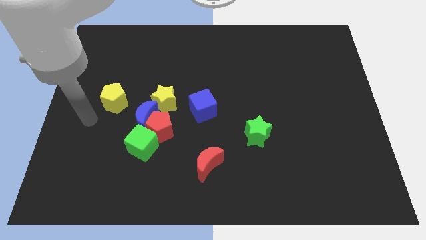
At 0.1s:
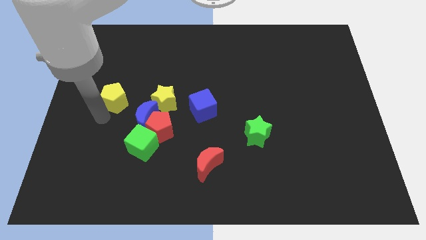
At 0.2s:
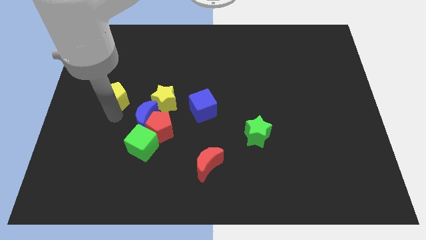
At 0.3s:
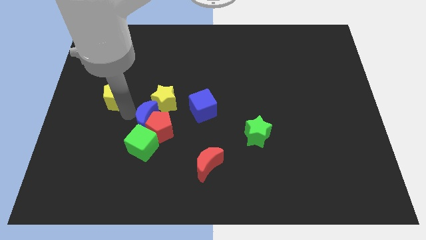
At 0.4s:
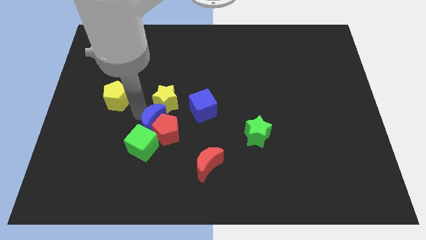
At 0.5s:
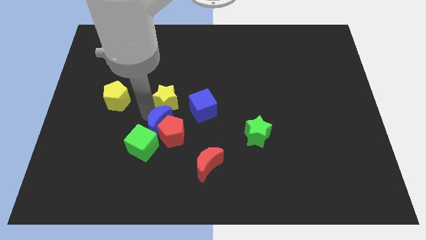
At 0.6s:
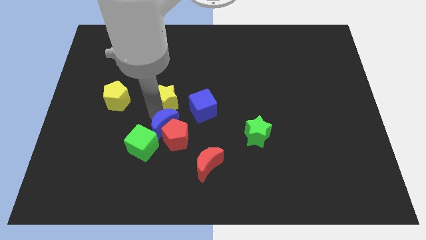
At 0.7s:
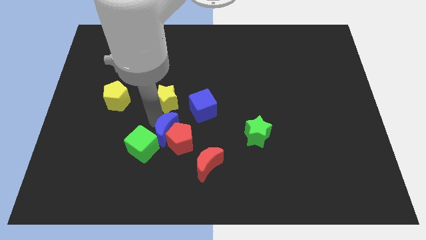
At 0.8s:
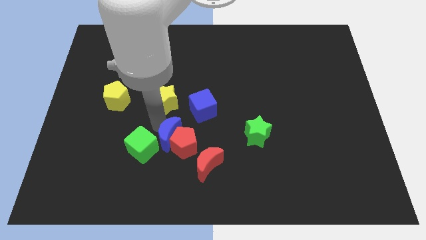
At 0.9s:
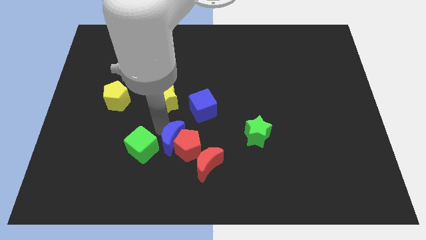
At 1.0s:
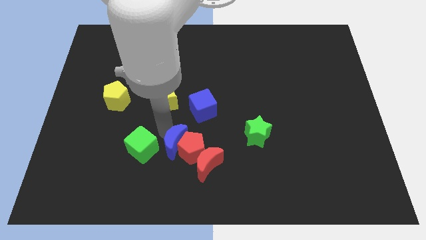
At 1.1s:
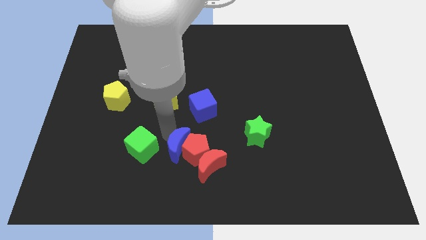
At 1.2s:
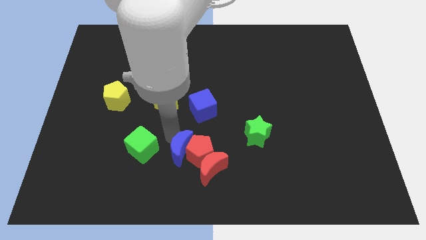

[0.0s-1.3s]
move the red pentagon away from the blue moon, green cube, and yellow star

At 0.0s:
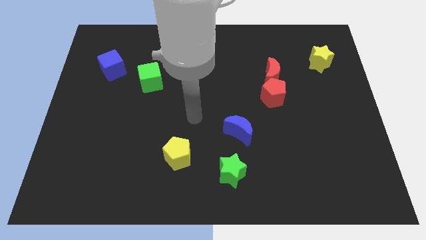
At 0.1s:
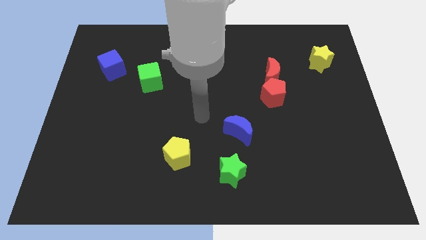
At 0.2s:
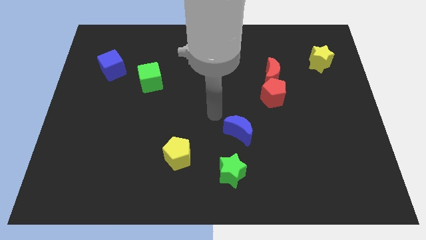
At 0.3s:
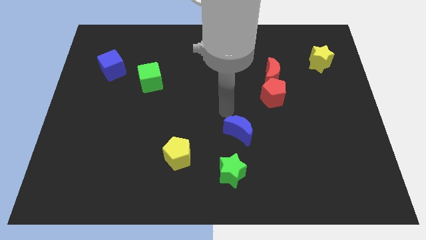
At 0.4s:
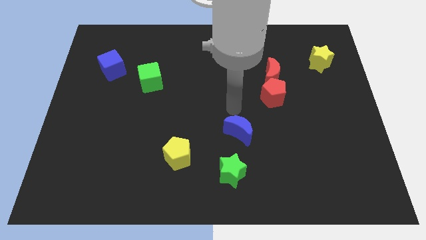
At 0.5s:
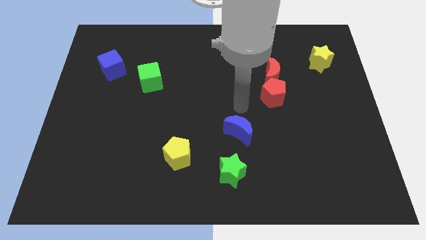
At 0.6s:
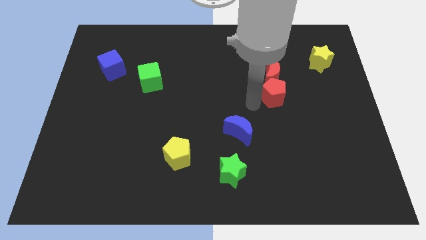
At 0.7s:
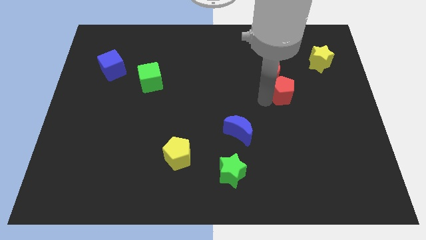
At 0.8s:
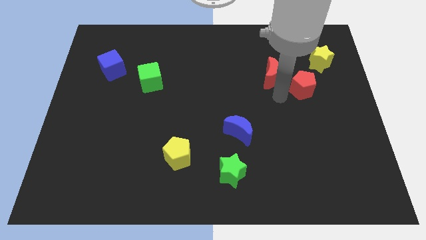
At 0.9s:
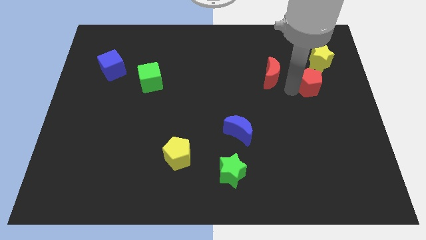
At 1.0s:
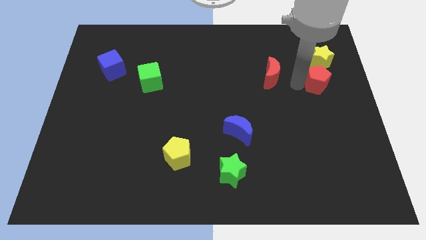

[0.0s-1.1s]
separate the red moon from the red pentagon

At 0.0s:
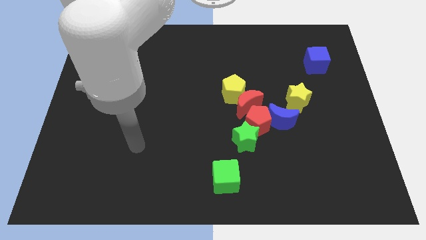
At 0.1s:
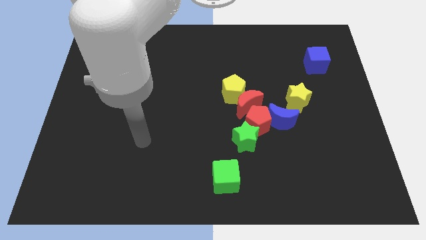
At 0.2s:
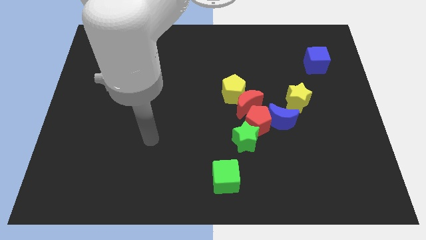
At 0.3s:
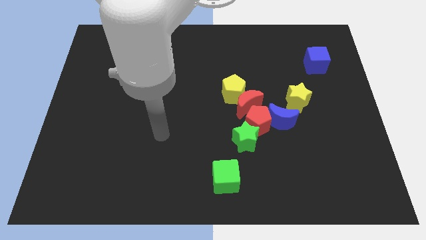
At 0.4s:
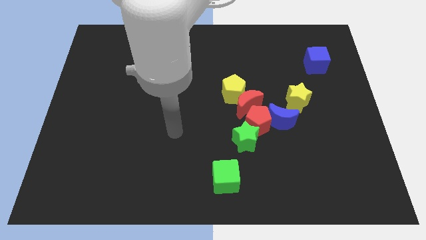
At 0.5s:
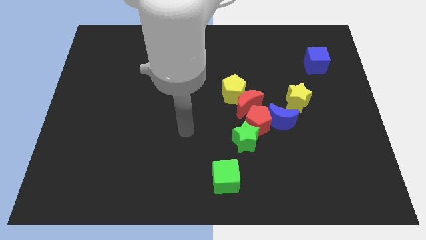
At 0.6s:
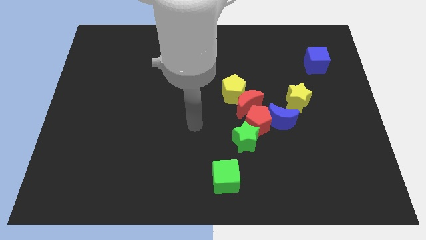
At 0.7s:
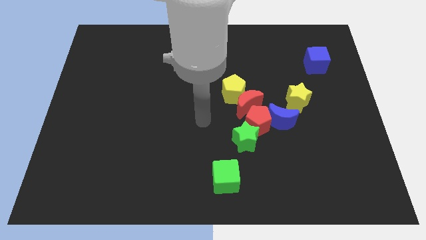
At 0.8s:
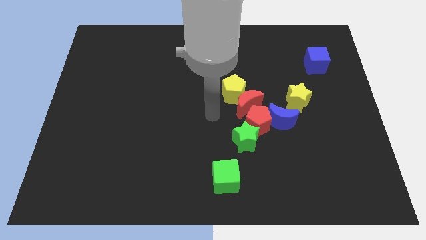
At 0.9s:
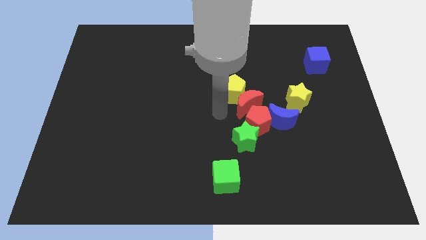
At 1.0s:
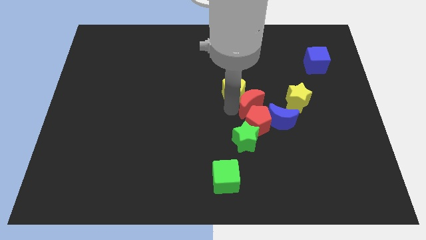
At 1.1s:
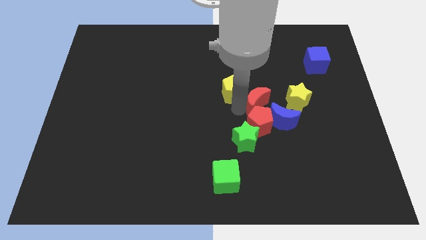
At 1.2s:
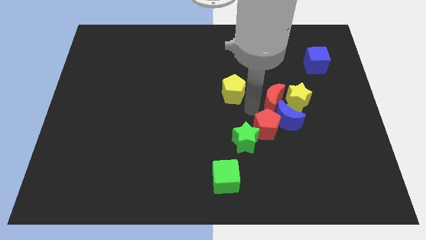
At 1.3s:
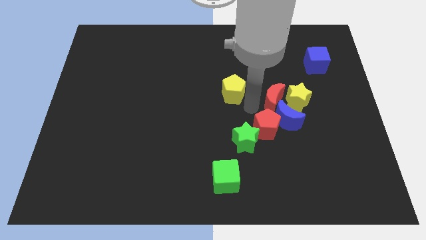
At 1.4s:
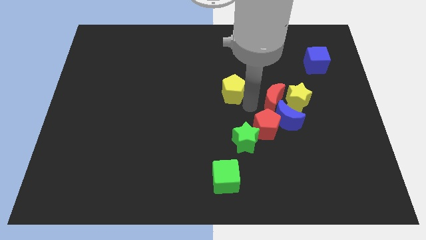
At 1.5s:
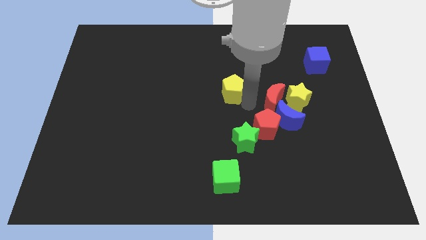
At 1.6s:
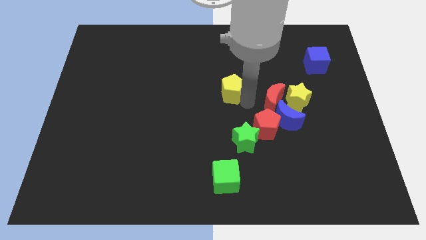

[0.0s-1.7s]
move the yellow pentagon away from the red moon

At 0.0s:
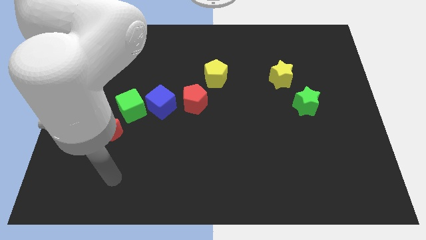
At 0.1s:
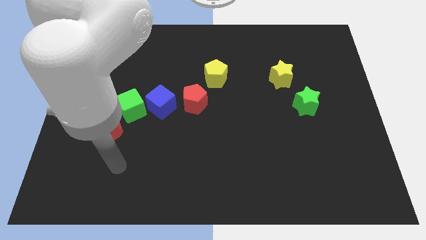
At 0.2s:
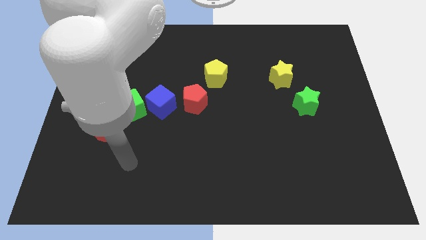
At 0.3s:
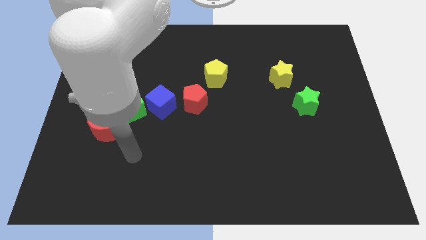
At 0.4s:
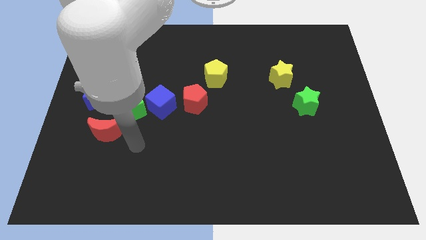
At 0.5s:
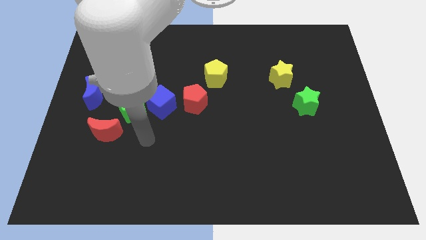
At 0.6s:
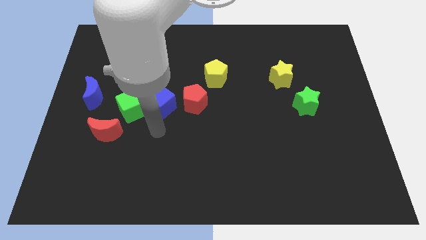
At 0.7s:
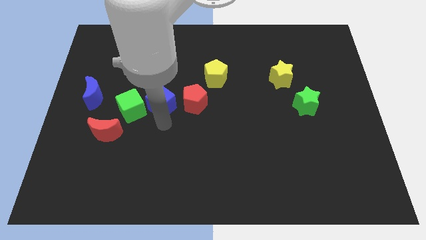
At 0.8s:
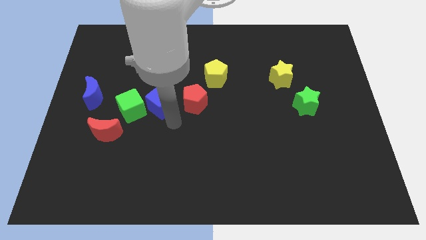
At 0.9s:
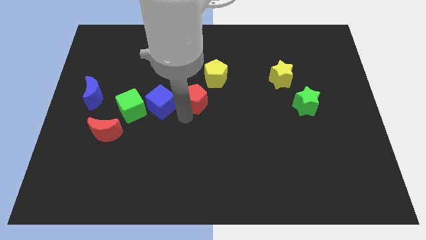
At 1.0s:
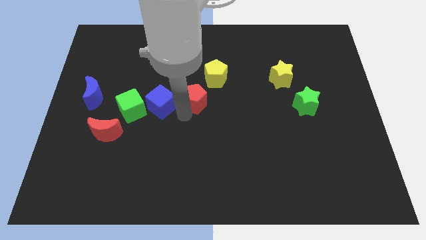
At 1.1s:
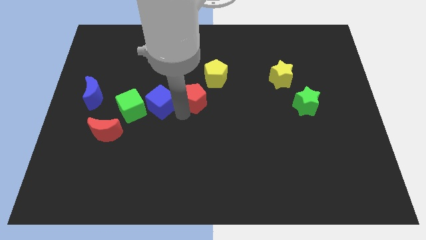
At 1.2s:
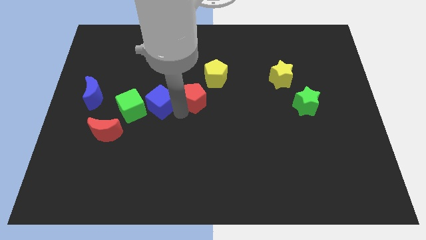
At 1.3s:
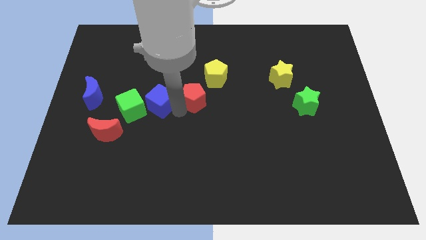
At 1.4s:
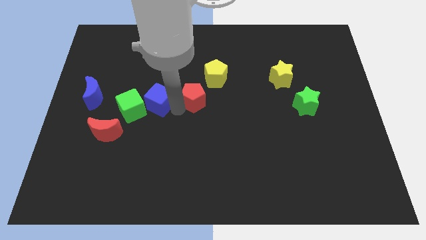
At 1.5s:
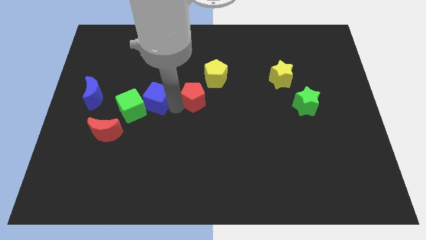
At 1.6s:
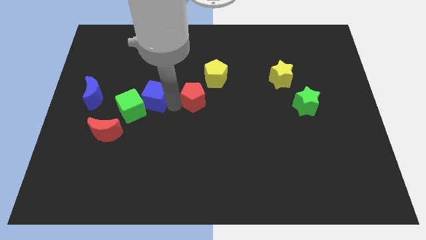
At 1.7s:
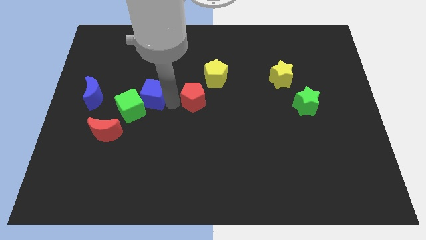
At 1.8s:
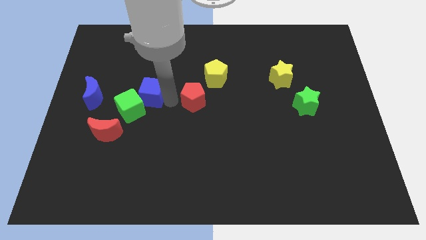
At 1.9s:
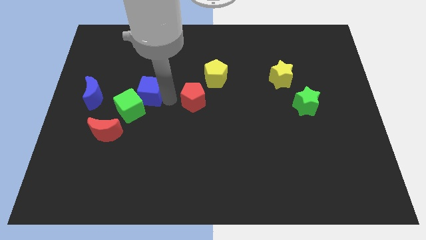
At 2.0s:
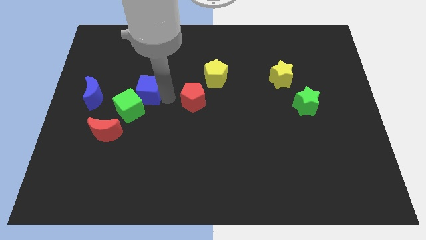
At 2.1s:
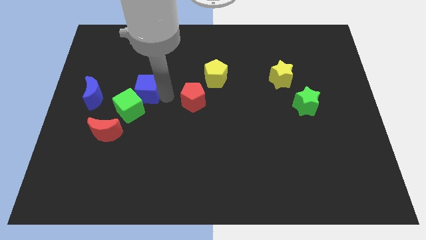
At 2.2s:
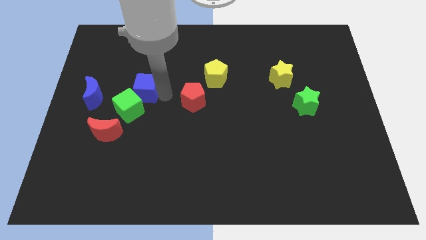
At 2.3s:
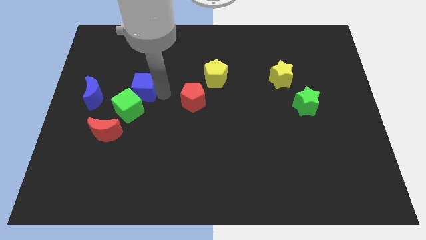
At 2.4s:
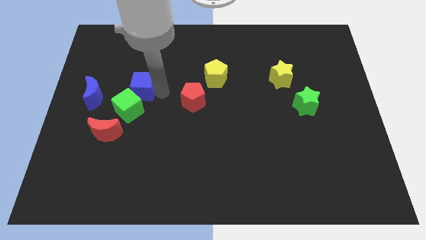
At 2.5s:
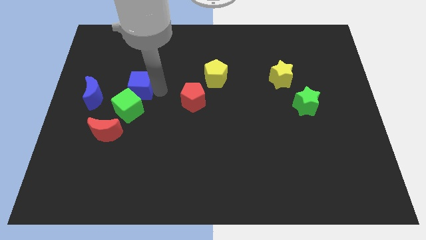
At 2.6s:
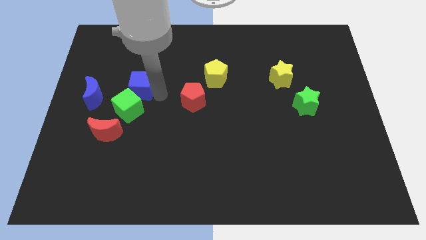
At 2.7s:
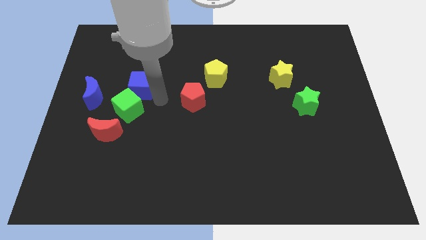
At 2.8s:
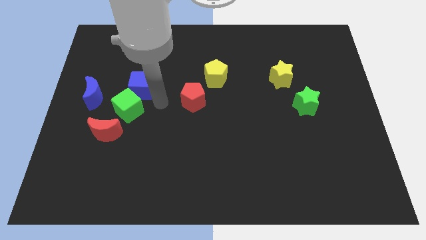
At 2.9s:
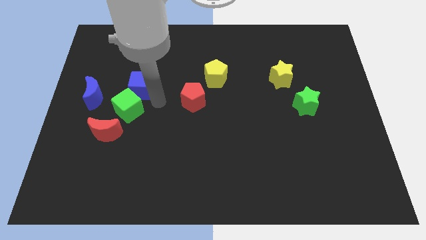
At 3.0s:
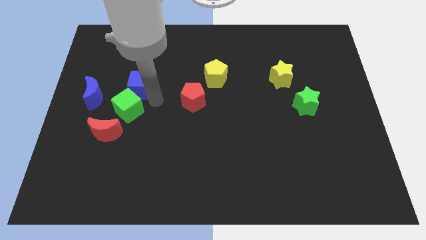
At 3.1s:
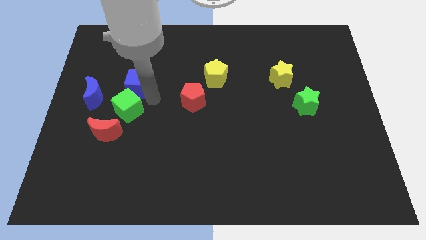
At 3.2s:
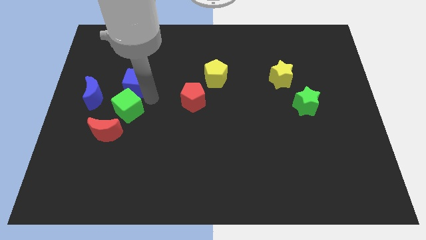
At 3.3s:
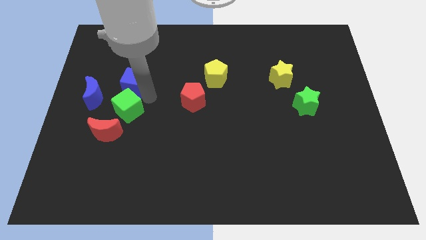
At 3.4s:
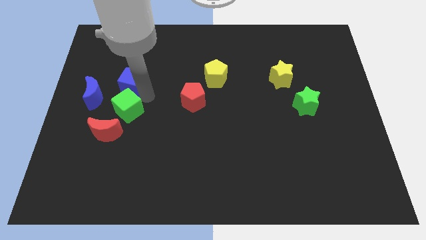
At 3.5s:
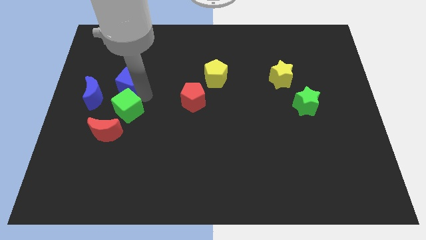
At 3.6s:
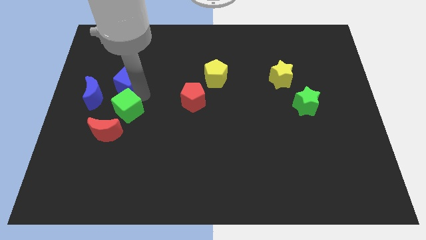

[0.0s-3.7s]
move the blue cube away from the green cube and red pentagon

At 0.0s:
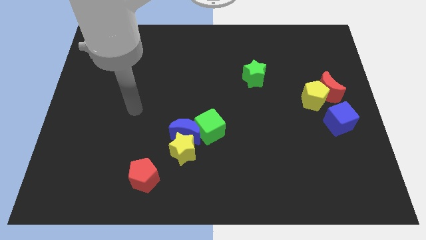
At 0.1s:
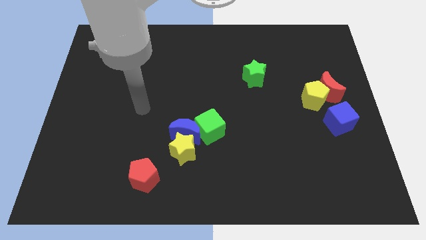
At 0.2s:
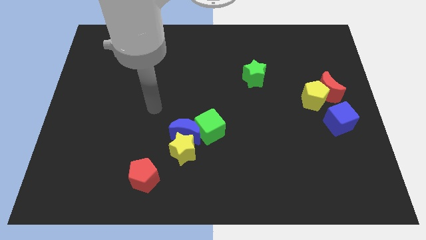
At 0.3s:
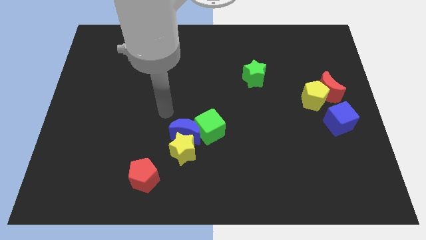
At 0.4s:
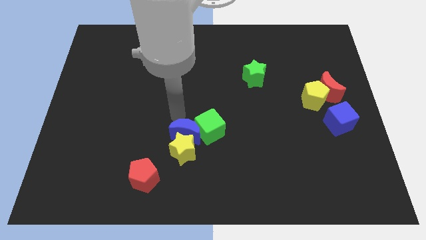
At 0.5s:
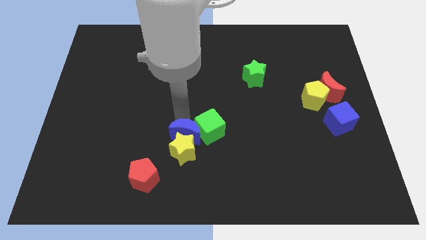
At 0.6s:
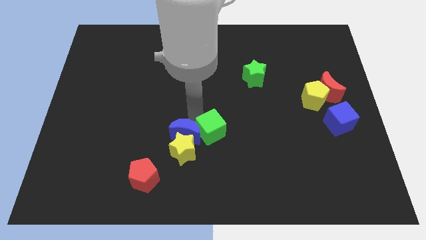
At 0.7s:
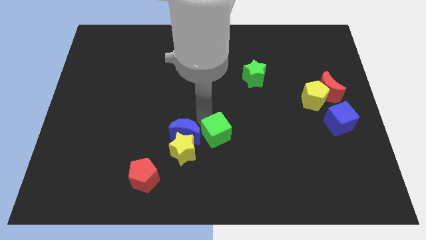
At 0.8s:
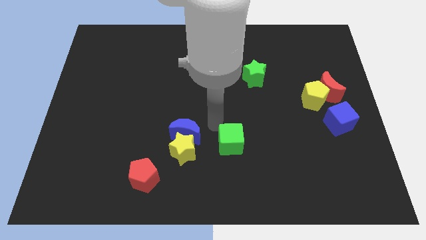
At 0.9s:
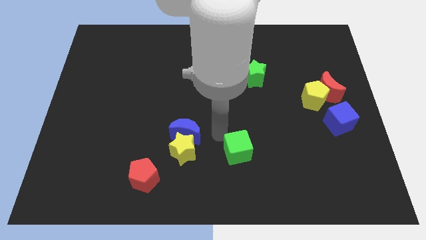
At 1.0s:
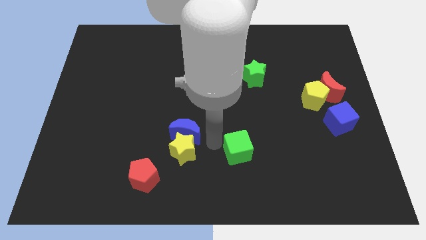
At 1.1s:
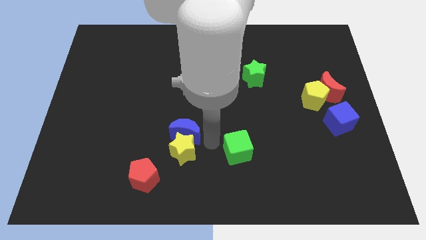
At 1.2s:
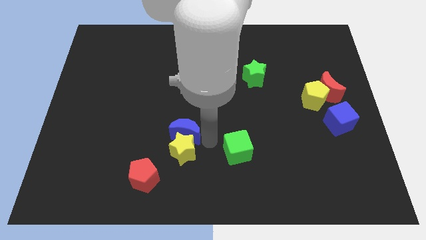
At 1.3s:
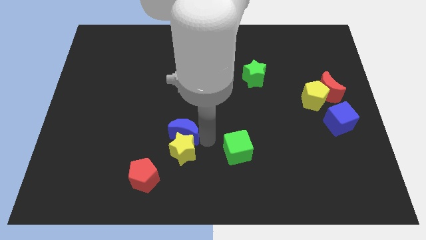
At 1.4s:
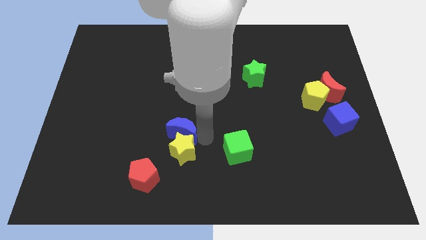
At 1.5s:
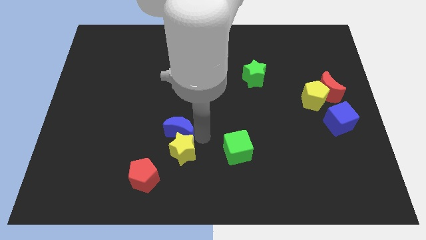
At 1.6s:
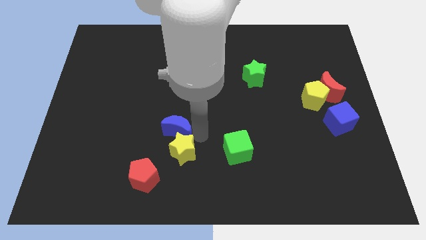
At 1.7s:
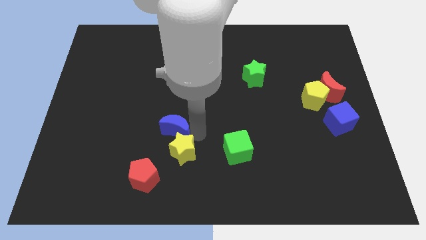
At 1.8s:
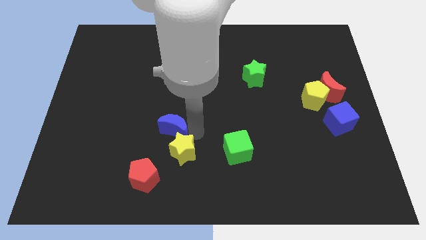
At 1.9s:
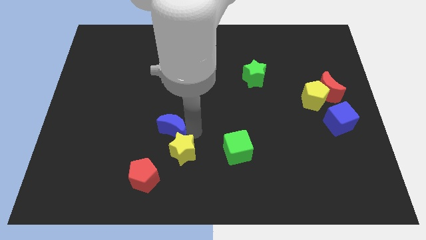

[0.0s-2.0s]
pull the blue moon apart from the yellow star and green cube
